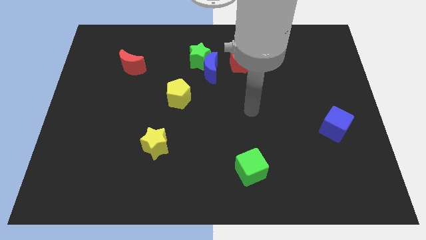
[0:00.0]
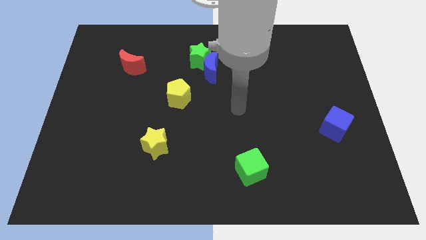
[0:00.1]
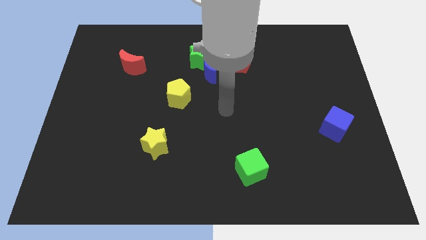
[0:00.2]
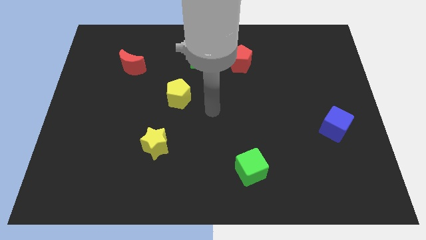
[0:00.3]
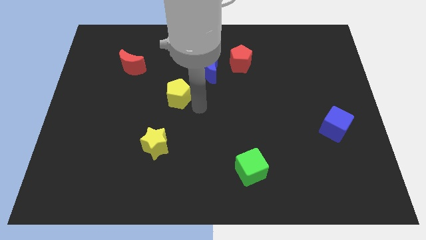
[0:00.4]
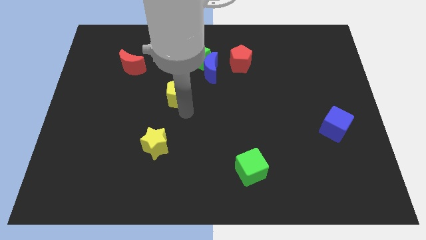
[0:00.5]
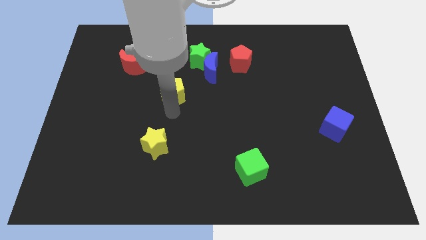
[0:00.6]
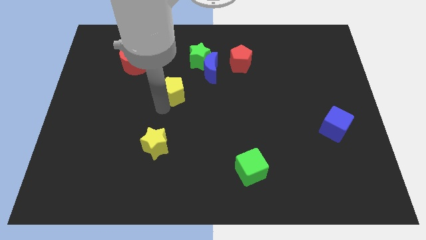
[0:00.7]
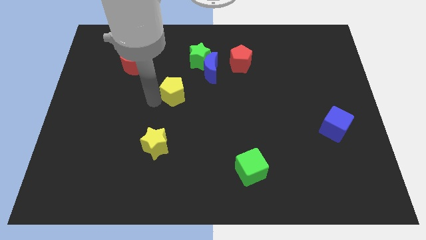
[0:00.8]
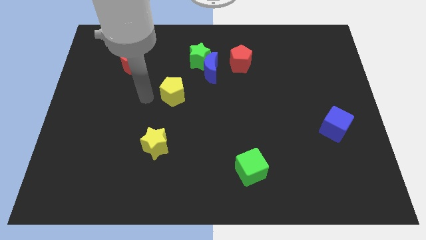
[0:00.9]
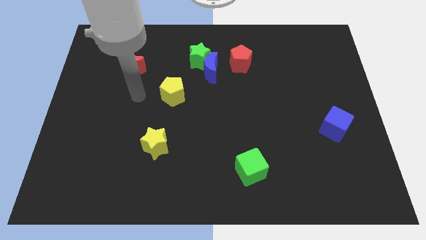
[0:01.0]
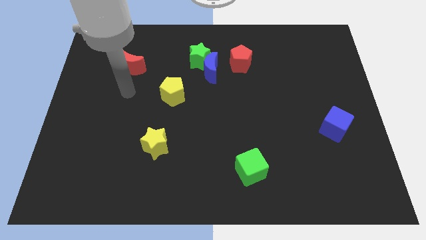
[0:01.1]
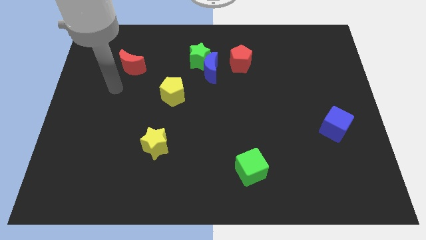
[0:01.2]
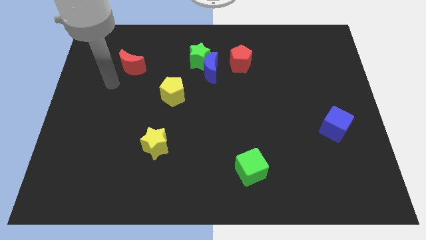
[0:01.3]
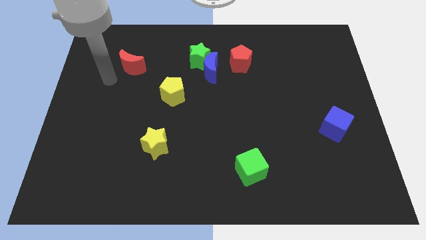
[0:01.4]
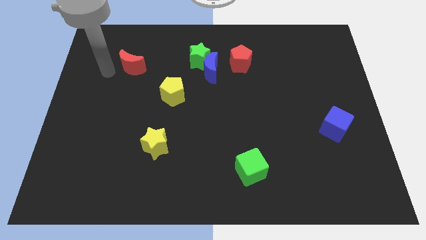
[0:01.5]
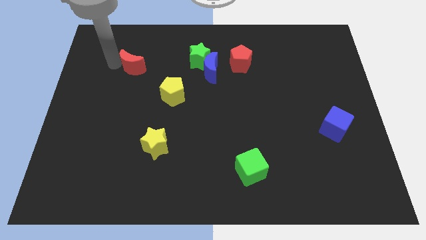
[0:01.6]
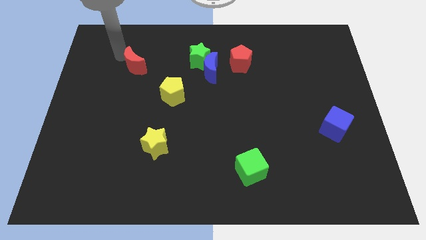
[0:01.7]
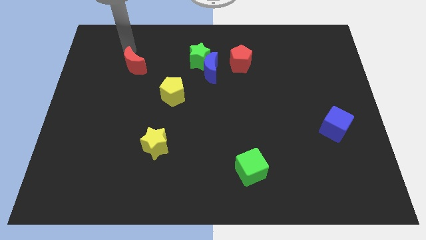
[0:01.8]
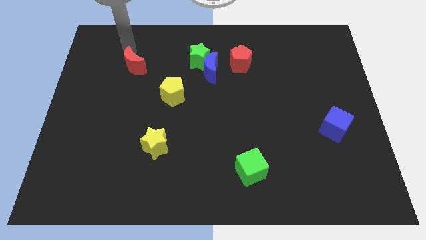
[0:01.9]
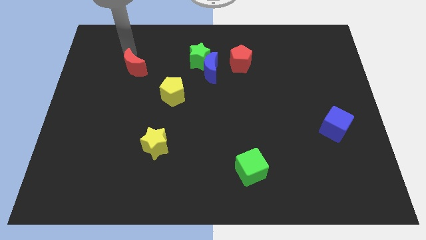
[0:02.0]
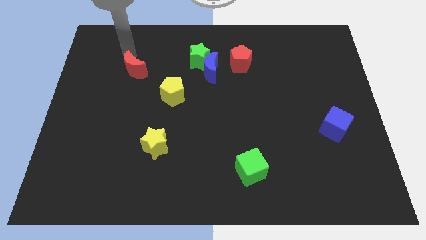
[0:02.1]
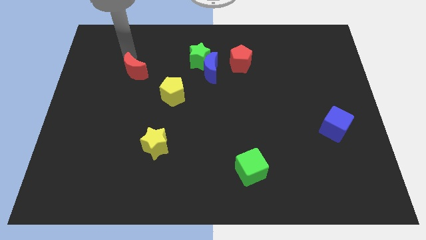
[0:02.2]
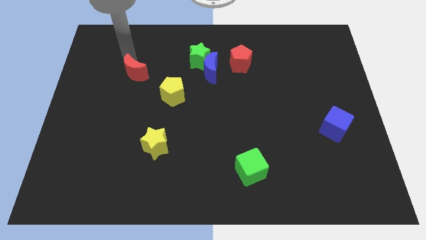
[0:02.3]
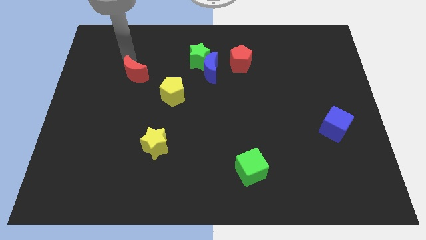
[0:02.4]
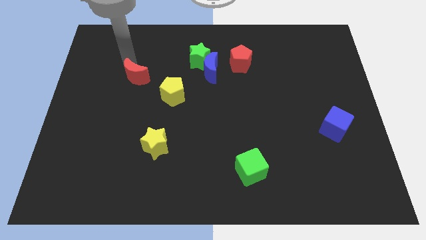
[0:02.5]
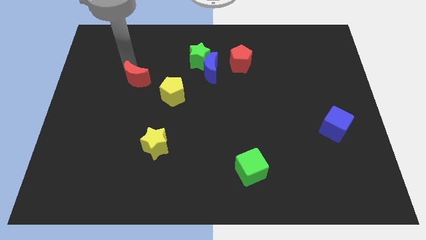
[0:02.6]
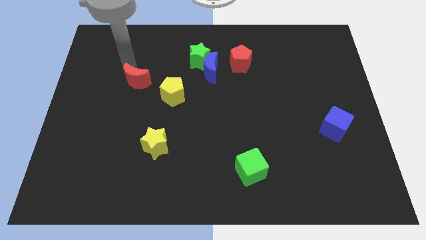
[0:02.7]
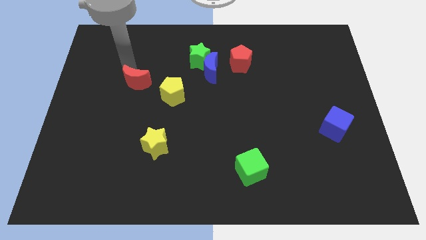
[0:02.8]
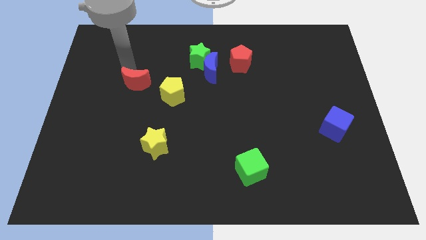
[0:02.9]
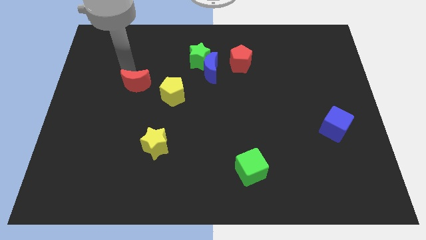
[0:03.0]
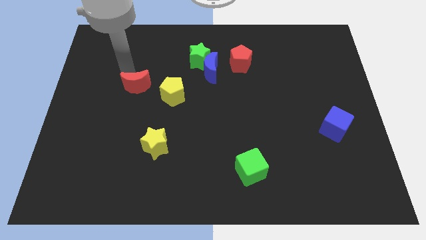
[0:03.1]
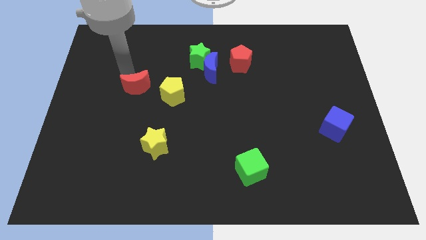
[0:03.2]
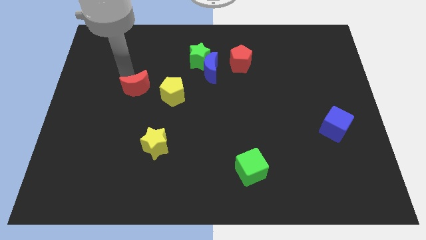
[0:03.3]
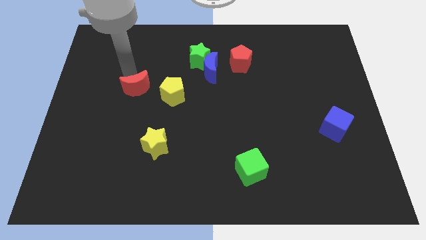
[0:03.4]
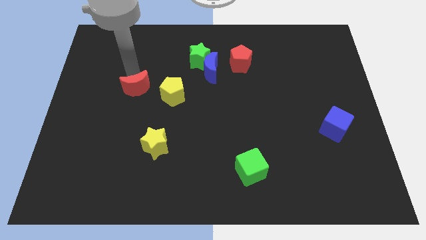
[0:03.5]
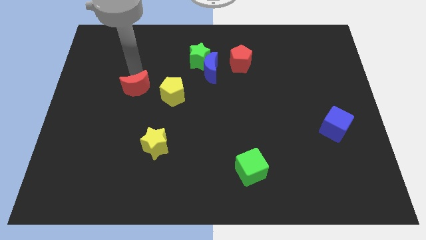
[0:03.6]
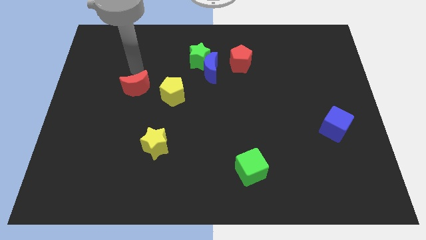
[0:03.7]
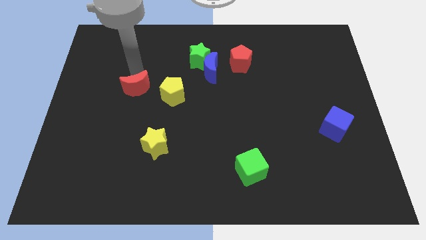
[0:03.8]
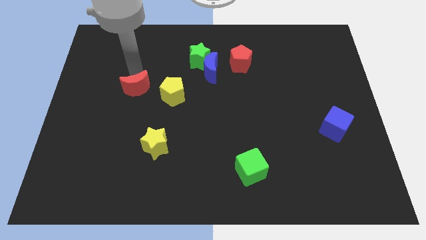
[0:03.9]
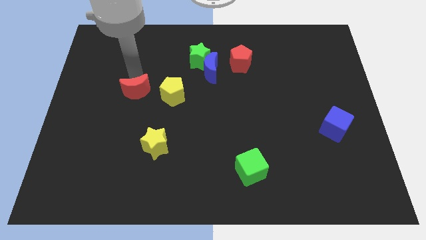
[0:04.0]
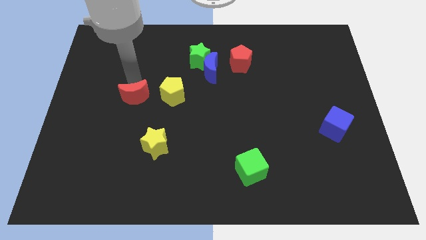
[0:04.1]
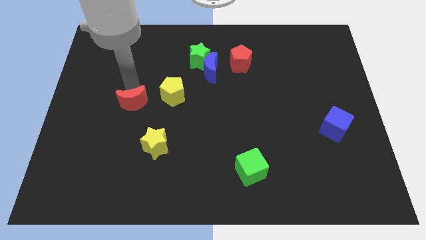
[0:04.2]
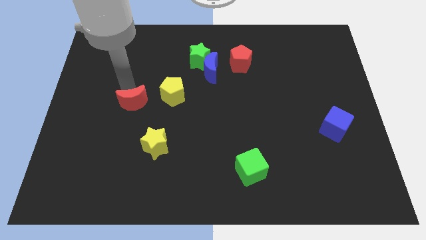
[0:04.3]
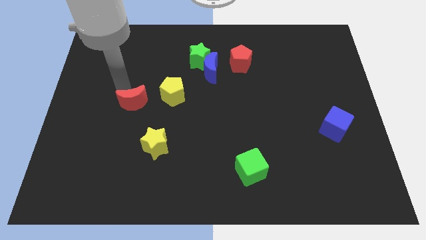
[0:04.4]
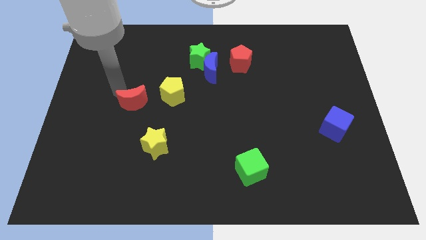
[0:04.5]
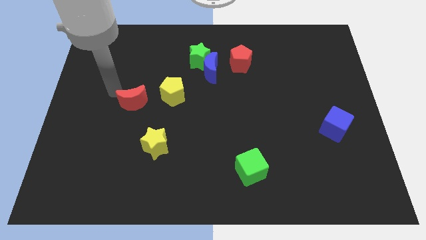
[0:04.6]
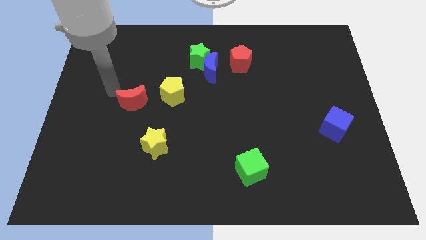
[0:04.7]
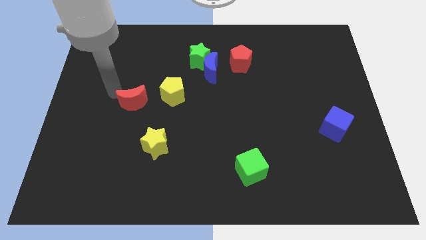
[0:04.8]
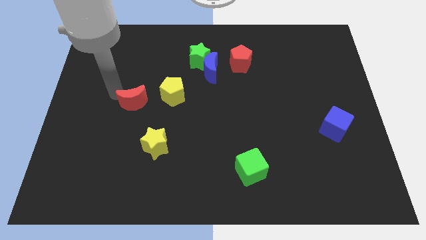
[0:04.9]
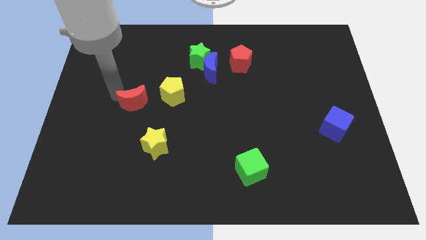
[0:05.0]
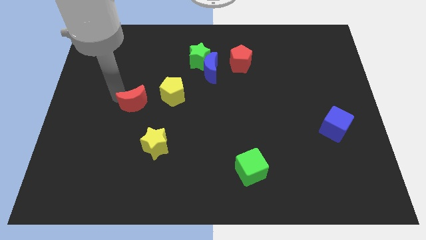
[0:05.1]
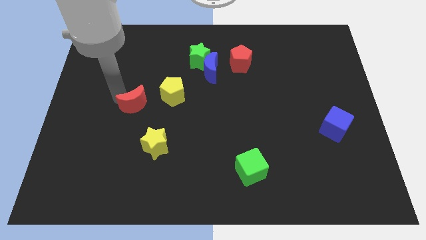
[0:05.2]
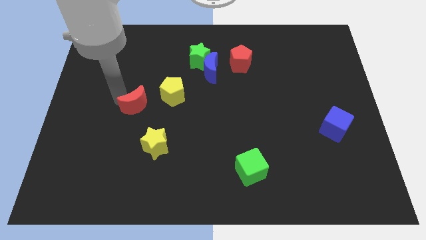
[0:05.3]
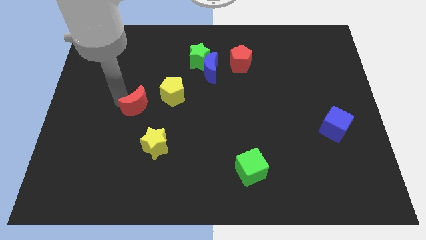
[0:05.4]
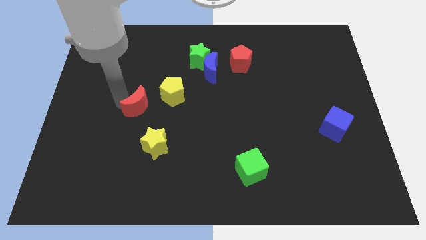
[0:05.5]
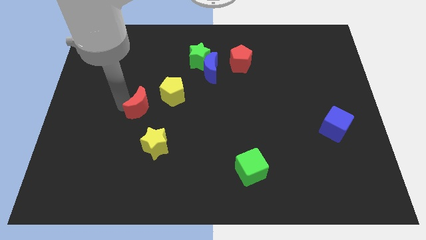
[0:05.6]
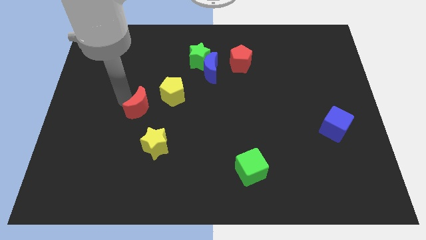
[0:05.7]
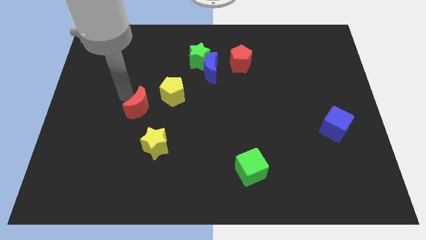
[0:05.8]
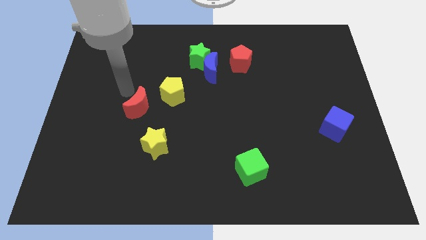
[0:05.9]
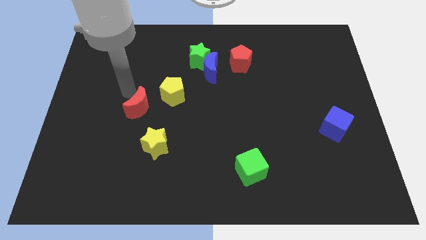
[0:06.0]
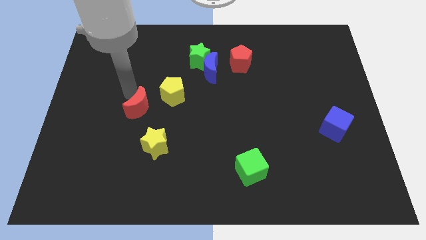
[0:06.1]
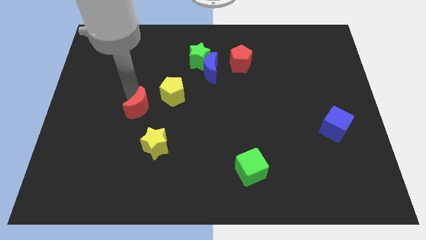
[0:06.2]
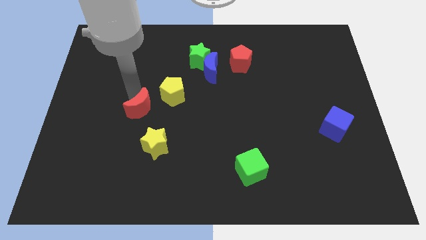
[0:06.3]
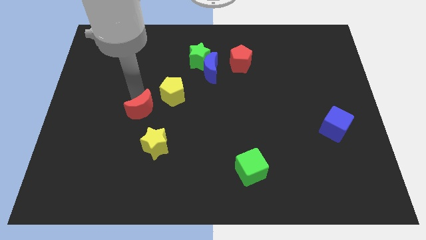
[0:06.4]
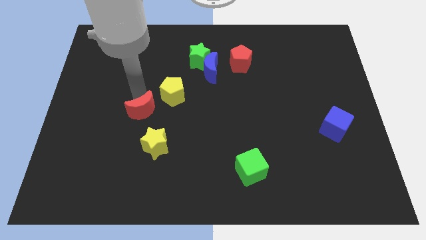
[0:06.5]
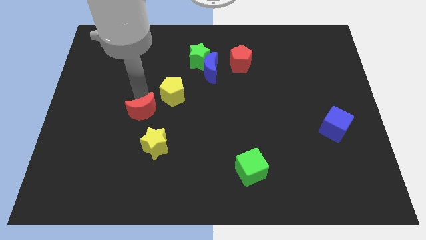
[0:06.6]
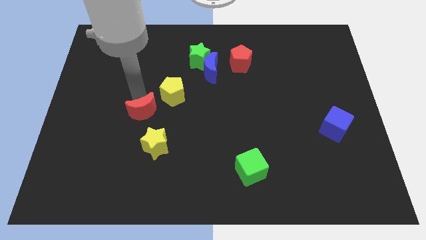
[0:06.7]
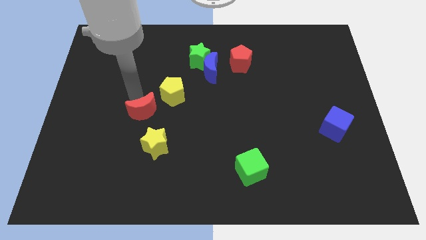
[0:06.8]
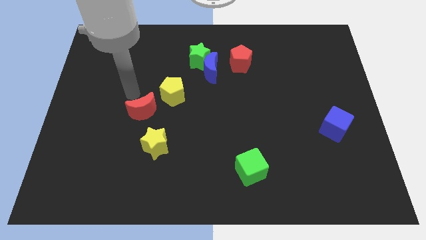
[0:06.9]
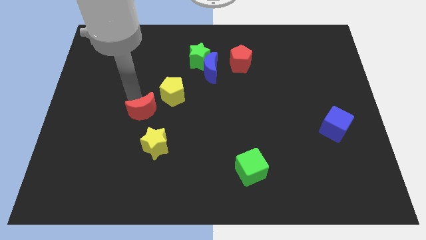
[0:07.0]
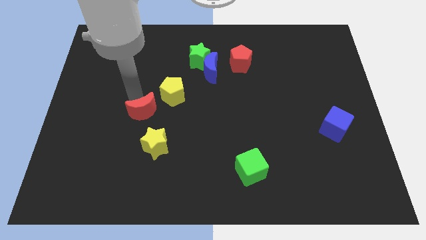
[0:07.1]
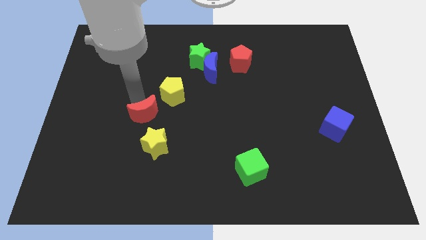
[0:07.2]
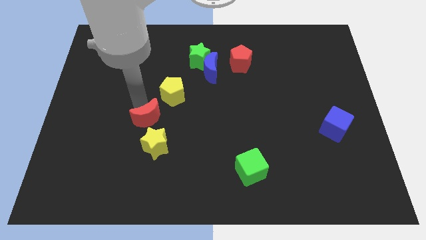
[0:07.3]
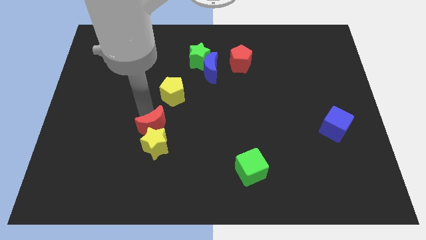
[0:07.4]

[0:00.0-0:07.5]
put the red moon next to the yellow star

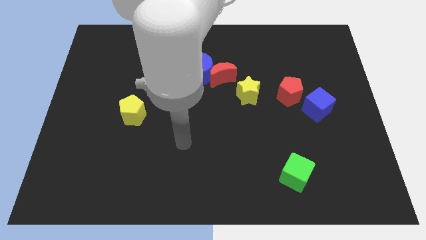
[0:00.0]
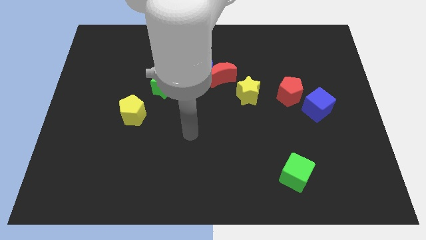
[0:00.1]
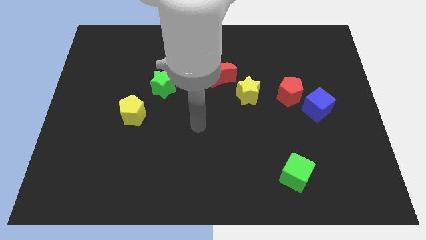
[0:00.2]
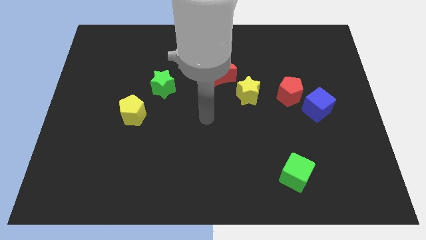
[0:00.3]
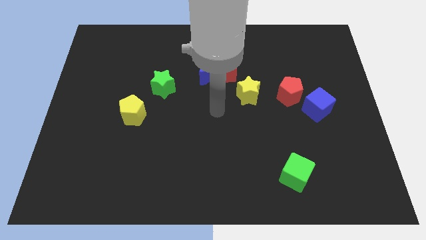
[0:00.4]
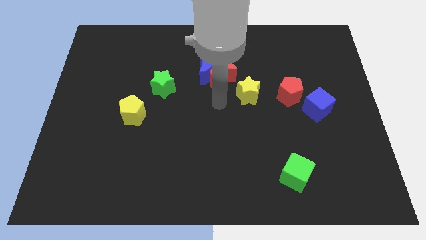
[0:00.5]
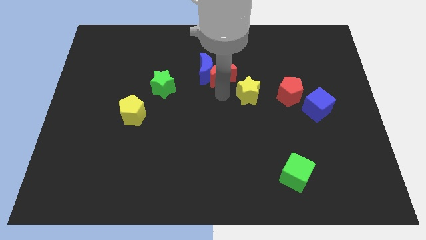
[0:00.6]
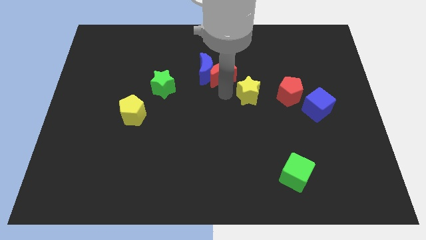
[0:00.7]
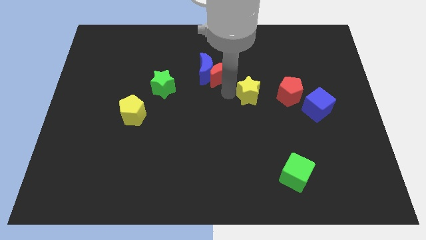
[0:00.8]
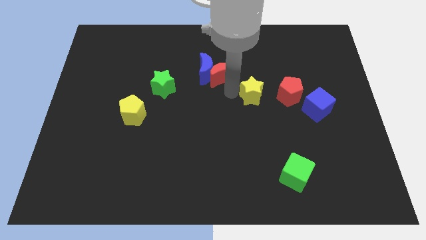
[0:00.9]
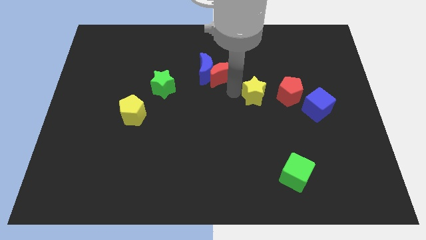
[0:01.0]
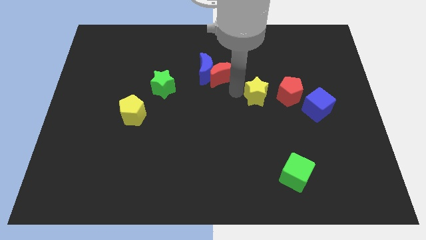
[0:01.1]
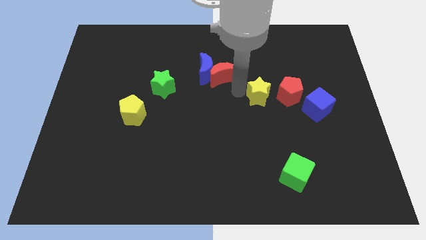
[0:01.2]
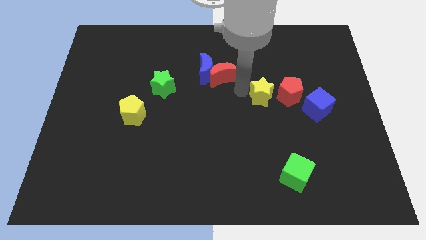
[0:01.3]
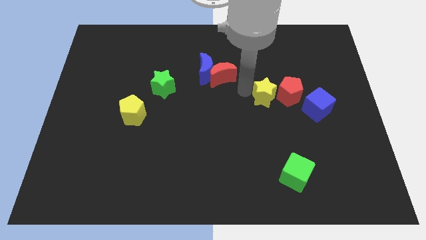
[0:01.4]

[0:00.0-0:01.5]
move the yellow star to the red pentagon
